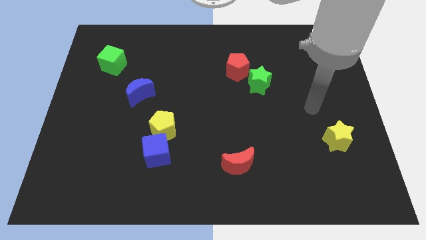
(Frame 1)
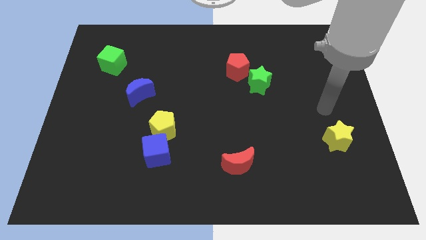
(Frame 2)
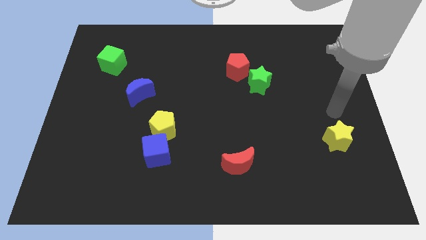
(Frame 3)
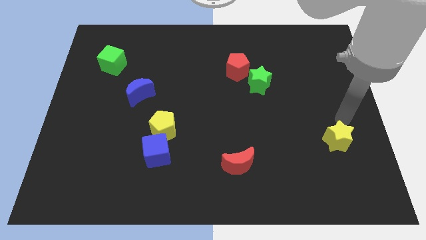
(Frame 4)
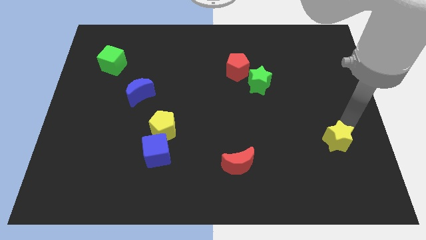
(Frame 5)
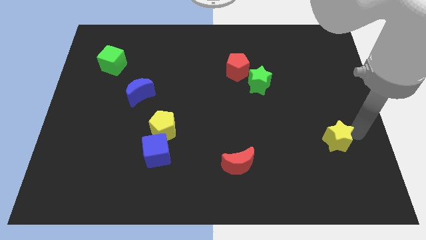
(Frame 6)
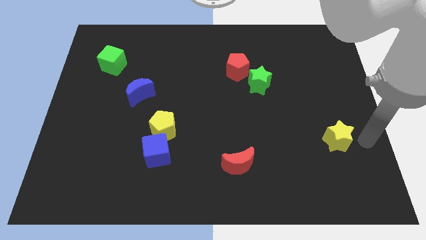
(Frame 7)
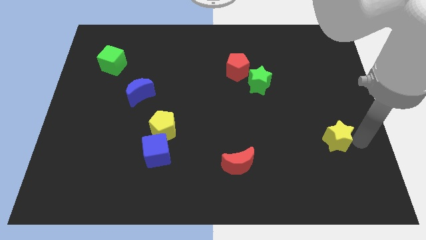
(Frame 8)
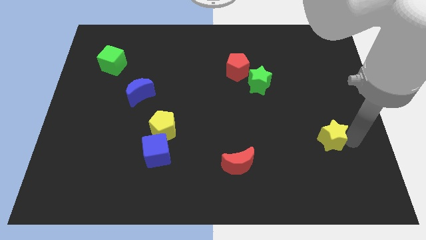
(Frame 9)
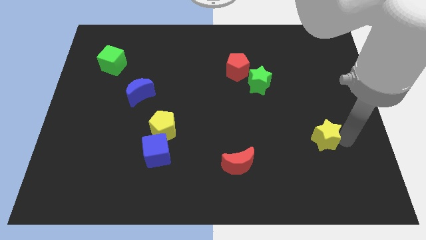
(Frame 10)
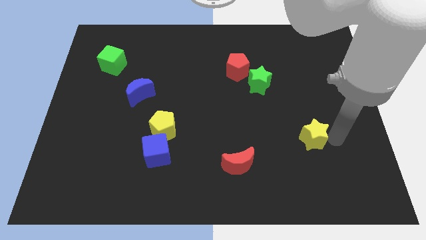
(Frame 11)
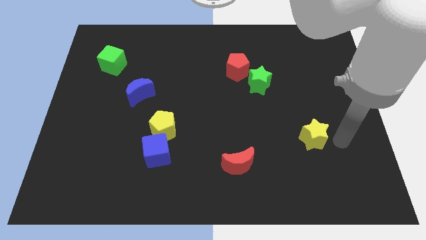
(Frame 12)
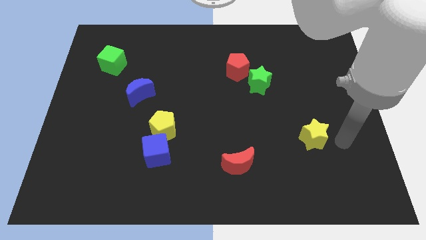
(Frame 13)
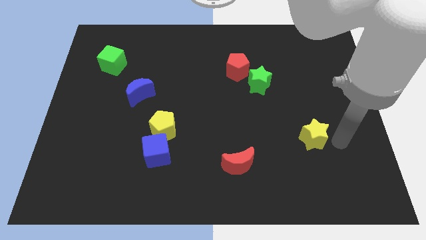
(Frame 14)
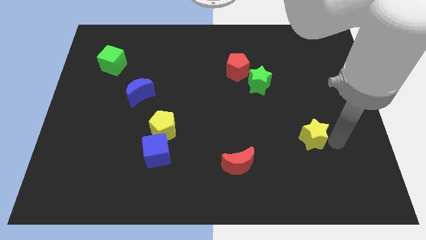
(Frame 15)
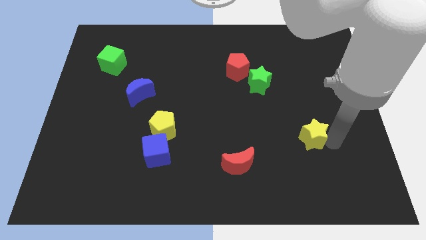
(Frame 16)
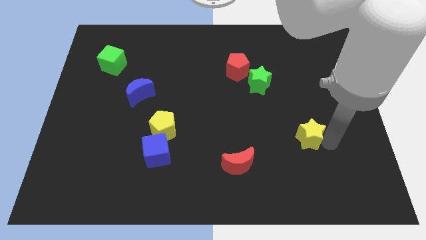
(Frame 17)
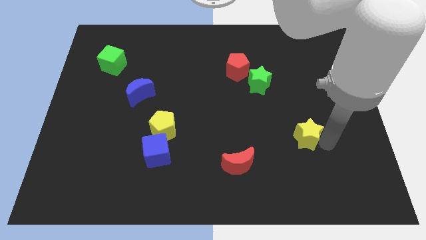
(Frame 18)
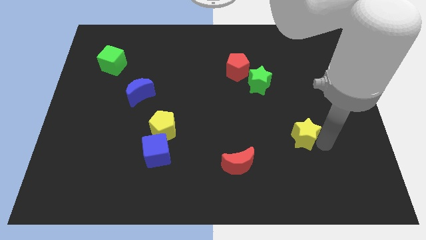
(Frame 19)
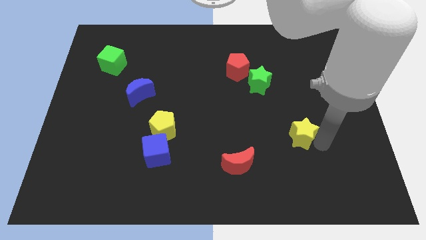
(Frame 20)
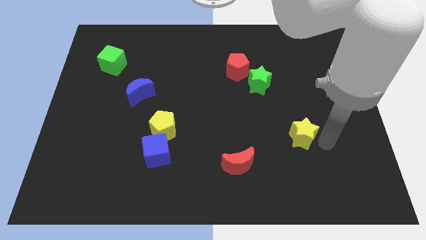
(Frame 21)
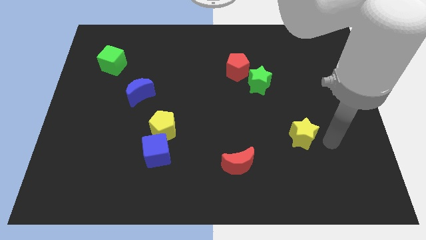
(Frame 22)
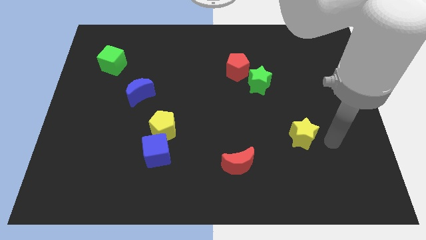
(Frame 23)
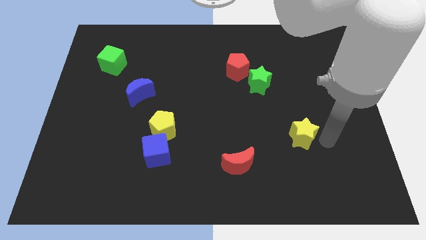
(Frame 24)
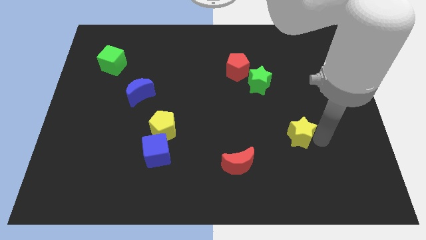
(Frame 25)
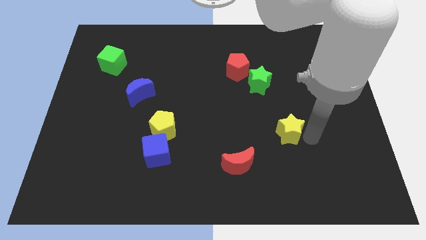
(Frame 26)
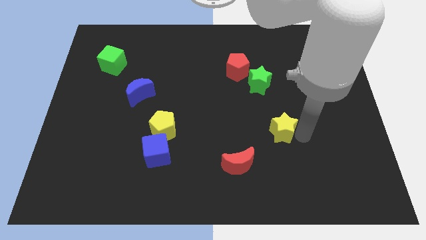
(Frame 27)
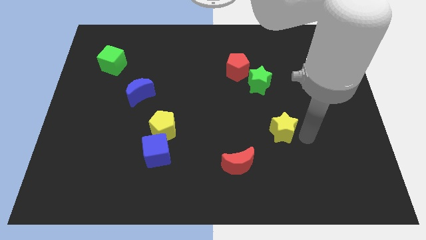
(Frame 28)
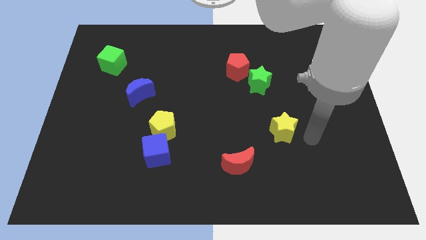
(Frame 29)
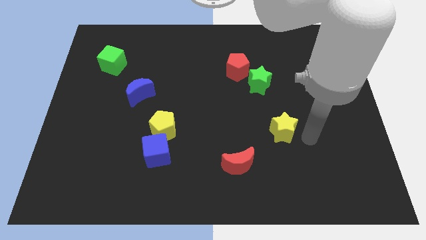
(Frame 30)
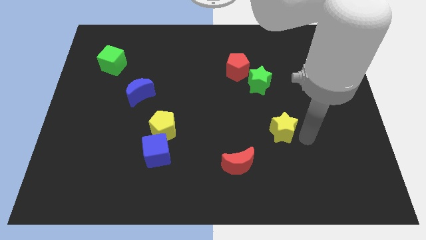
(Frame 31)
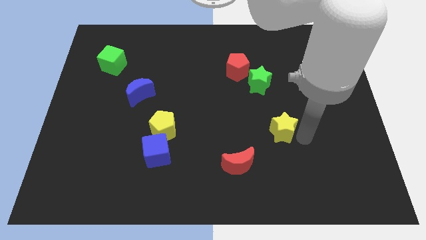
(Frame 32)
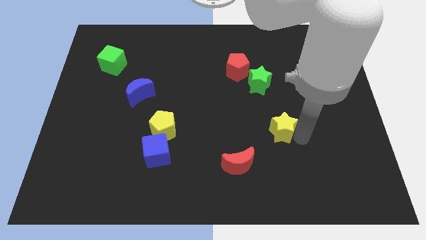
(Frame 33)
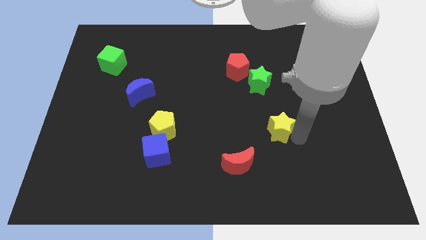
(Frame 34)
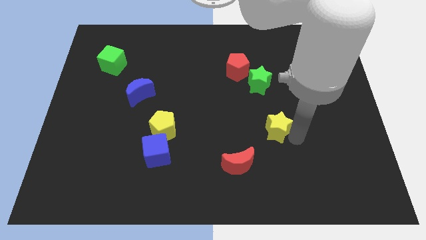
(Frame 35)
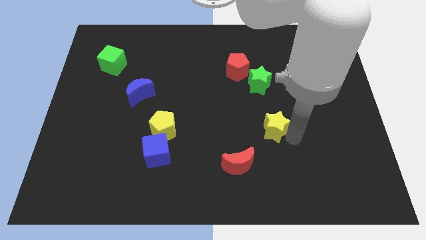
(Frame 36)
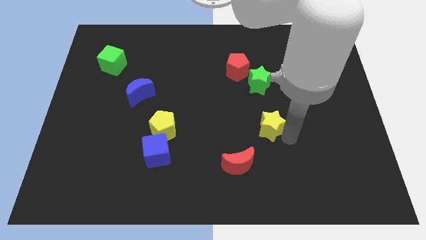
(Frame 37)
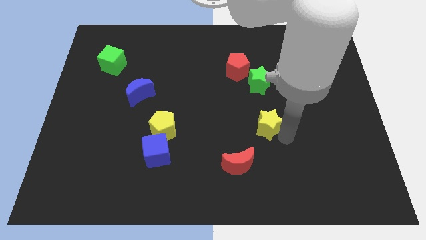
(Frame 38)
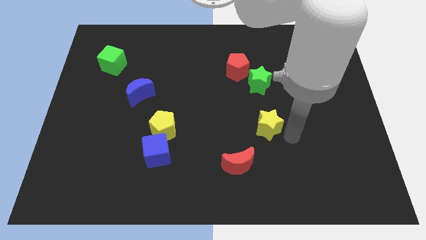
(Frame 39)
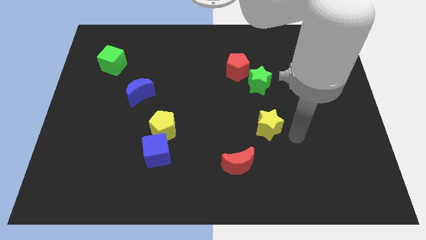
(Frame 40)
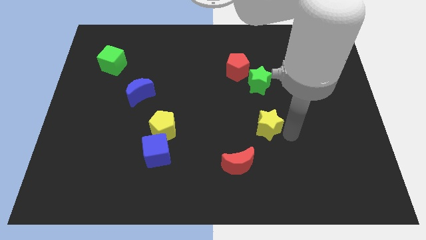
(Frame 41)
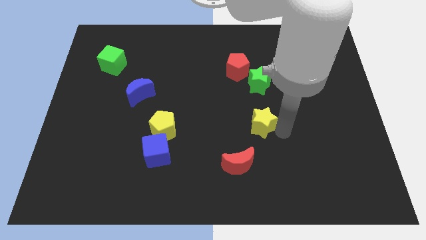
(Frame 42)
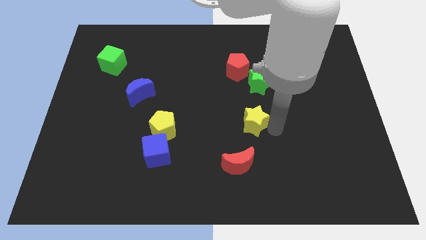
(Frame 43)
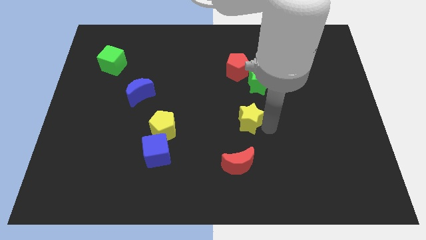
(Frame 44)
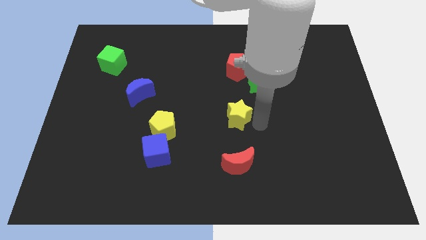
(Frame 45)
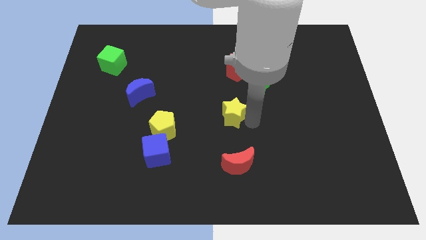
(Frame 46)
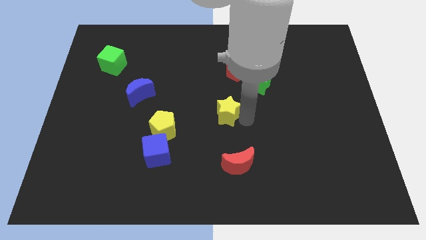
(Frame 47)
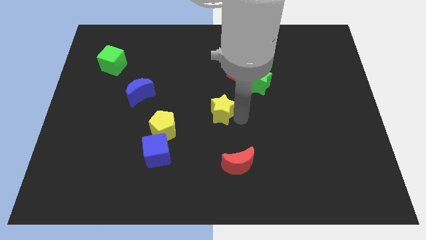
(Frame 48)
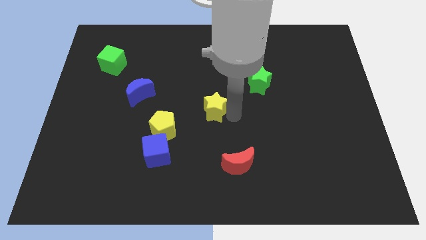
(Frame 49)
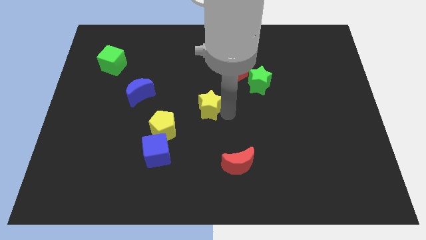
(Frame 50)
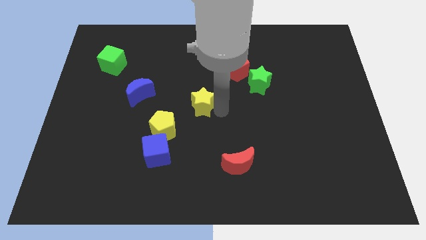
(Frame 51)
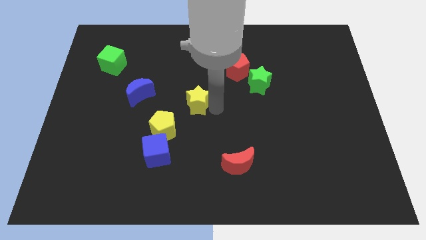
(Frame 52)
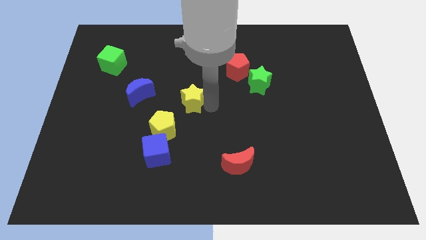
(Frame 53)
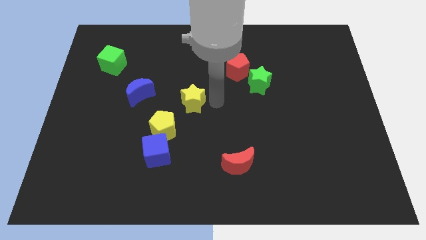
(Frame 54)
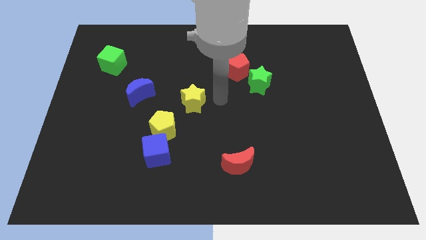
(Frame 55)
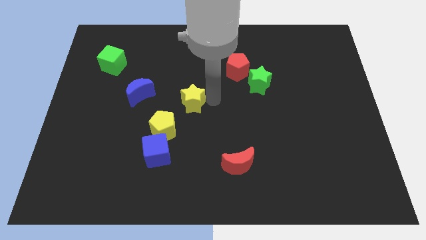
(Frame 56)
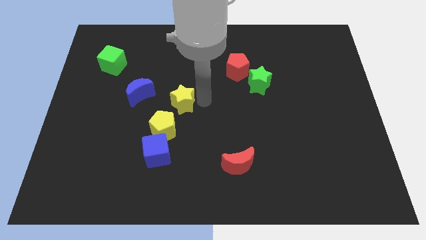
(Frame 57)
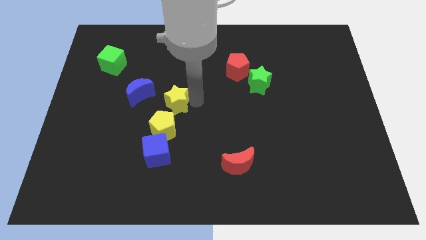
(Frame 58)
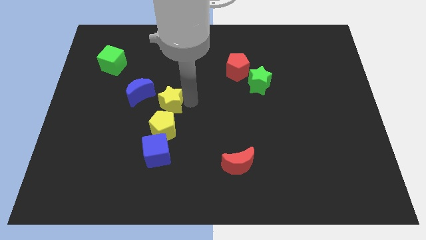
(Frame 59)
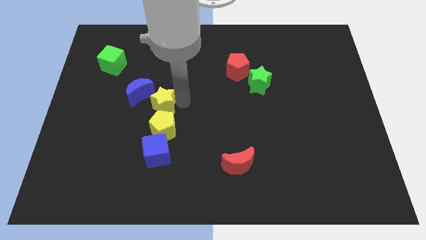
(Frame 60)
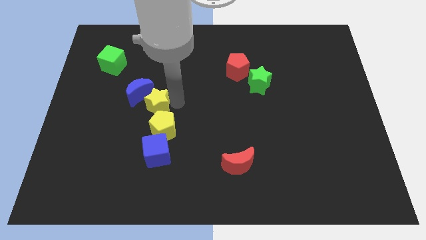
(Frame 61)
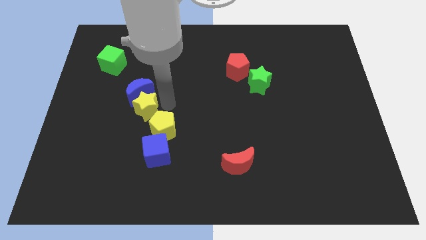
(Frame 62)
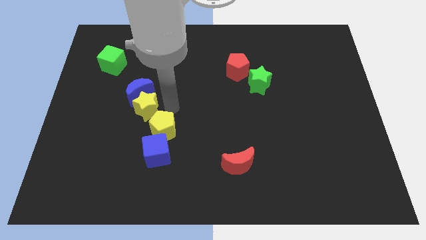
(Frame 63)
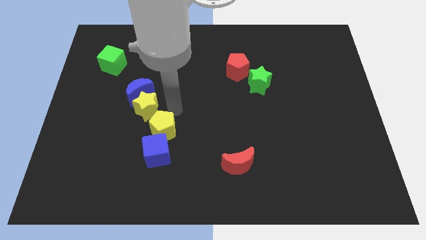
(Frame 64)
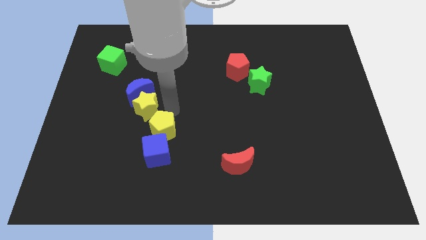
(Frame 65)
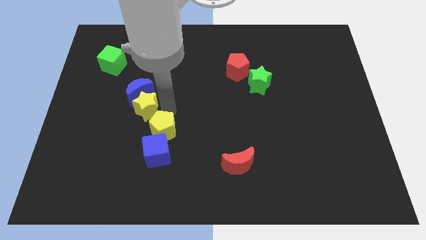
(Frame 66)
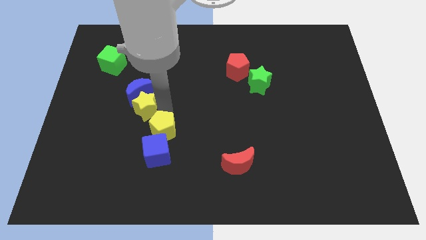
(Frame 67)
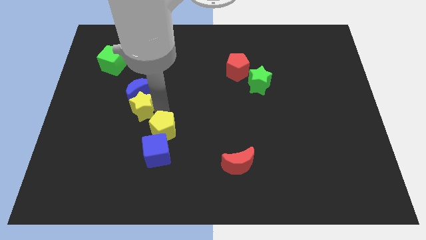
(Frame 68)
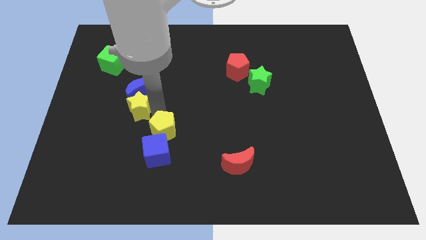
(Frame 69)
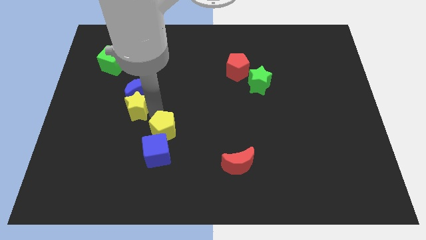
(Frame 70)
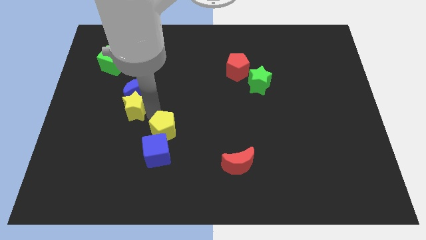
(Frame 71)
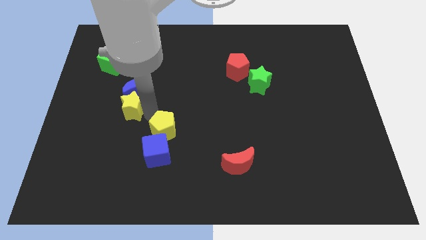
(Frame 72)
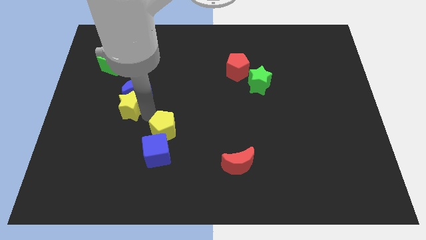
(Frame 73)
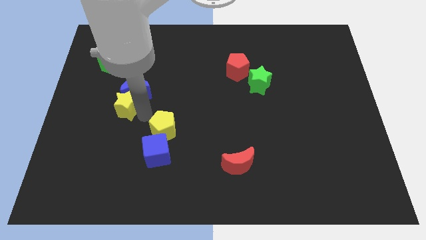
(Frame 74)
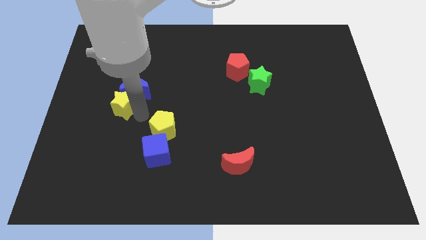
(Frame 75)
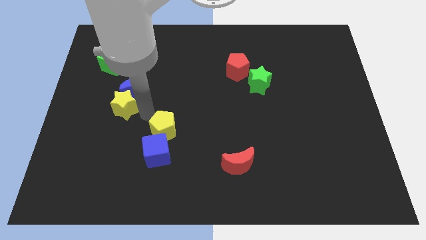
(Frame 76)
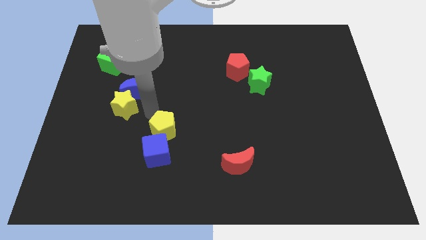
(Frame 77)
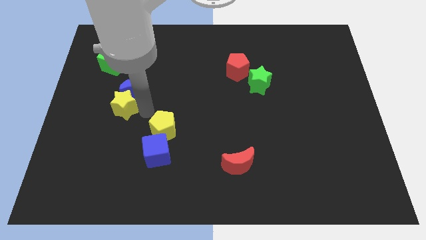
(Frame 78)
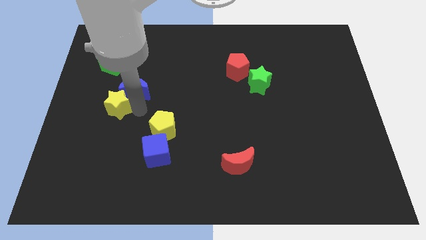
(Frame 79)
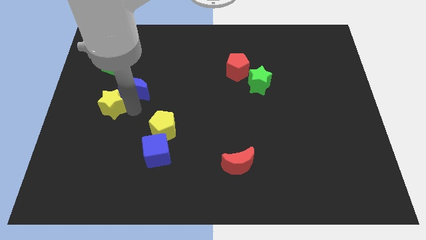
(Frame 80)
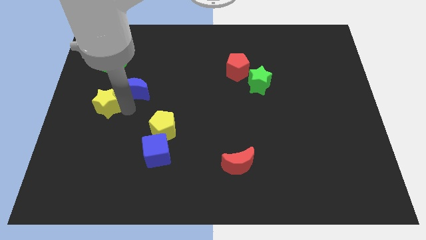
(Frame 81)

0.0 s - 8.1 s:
push the yellow star to the left side of the board
